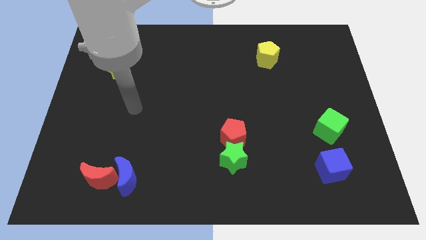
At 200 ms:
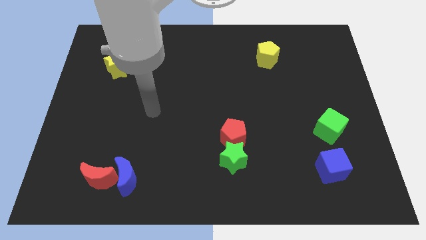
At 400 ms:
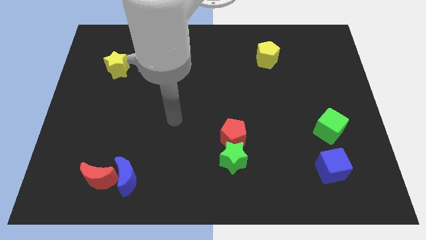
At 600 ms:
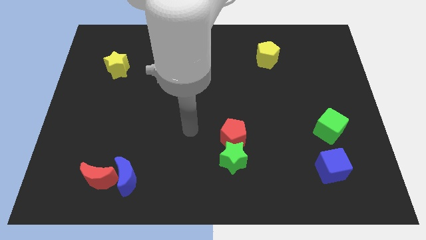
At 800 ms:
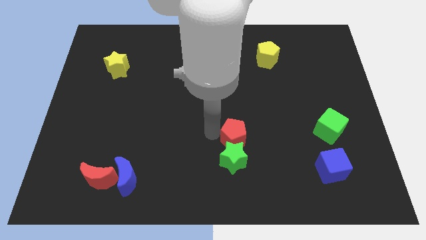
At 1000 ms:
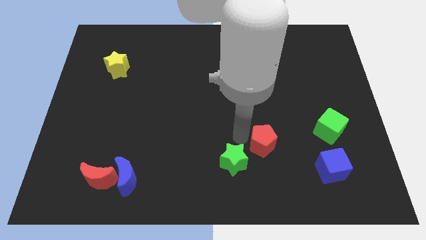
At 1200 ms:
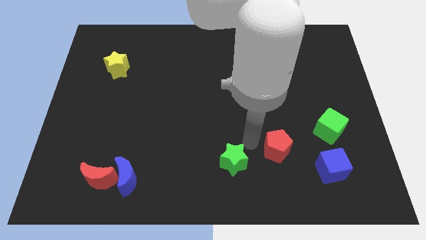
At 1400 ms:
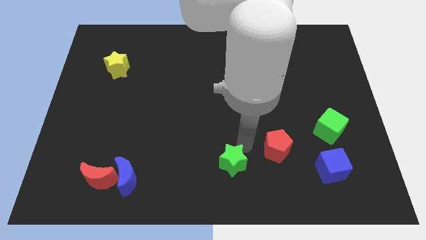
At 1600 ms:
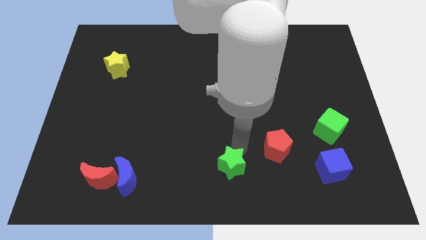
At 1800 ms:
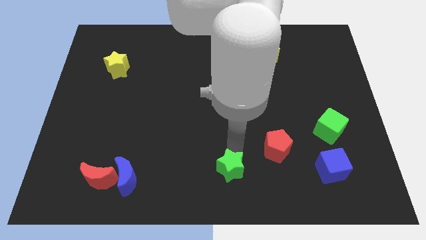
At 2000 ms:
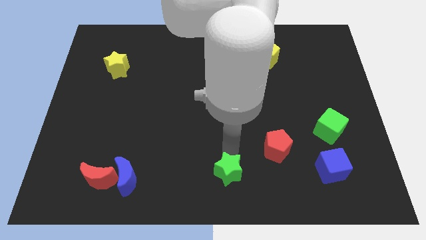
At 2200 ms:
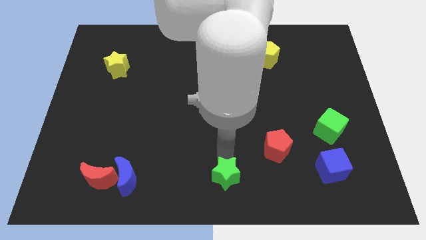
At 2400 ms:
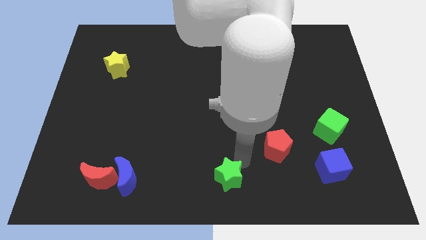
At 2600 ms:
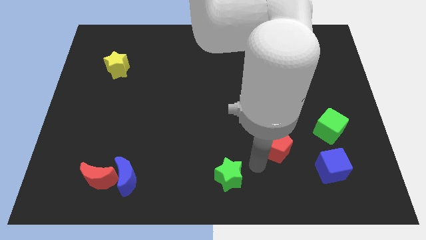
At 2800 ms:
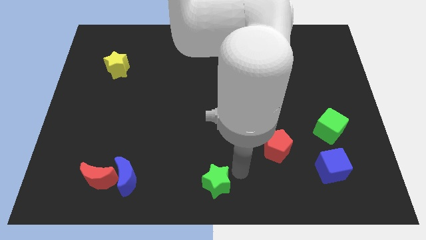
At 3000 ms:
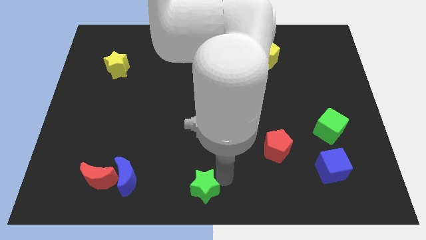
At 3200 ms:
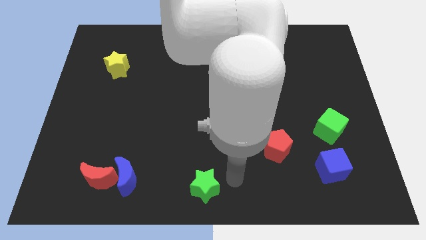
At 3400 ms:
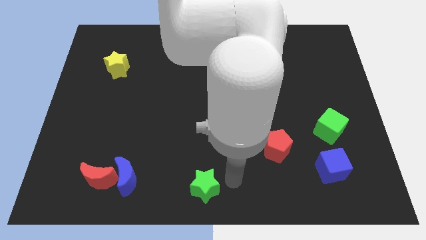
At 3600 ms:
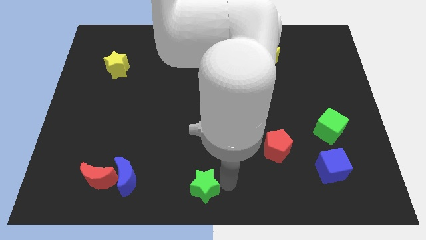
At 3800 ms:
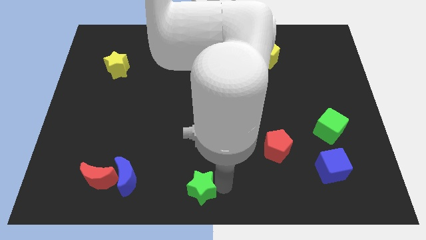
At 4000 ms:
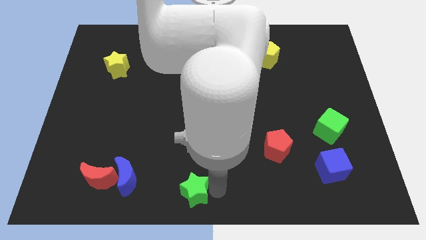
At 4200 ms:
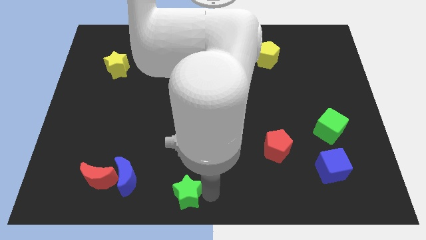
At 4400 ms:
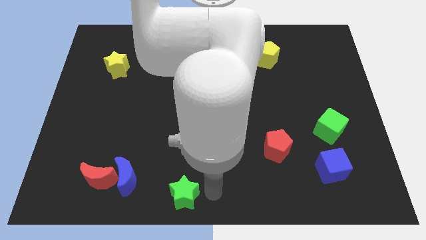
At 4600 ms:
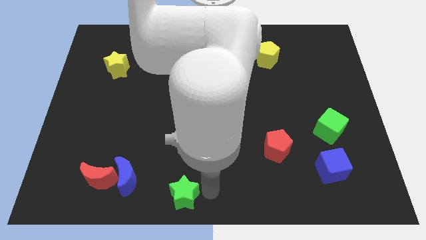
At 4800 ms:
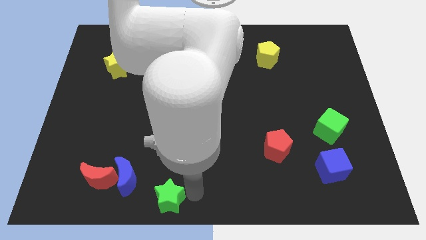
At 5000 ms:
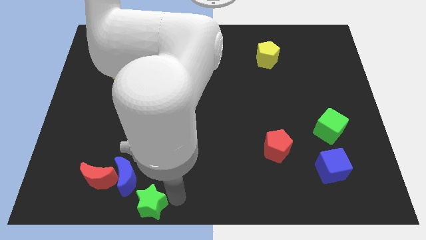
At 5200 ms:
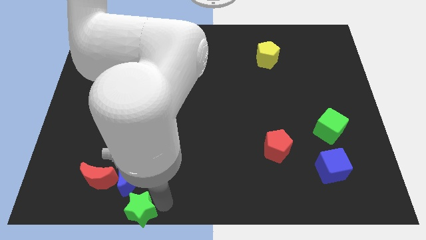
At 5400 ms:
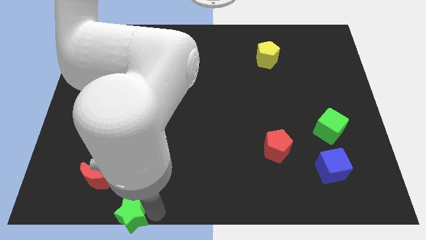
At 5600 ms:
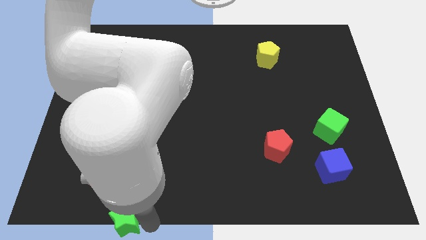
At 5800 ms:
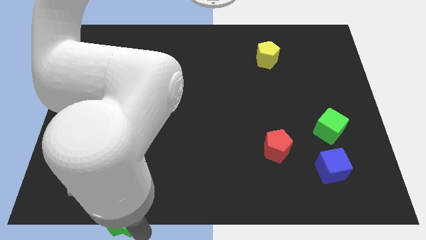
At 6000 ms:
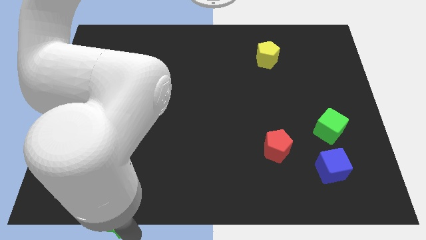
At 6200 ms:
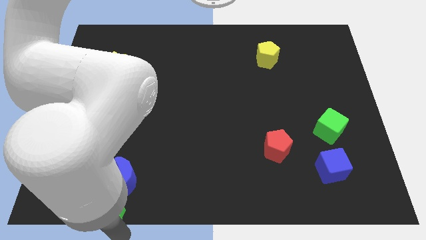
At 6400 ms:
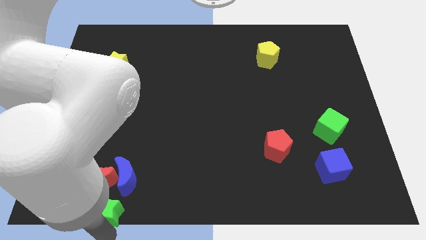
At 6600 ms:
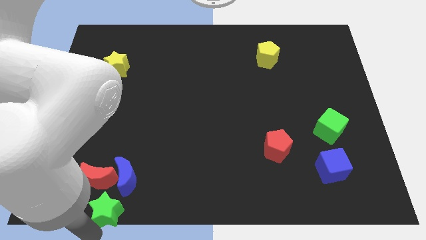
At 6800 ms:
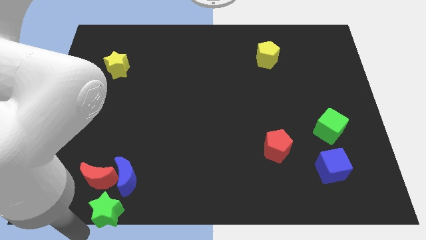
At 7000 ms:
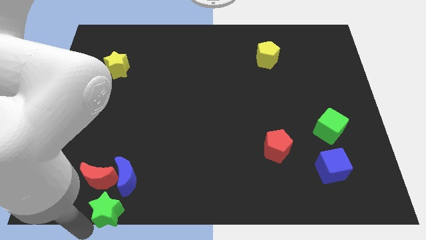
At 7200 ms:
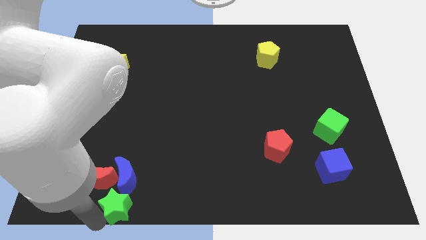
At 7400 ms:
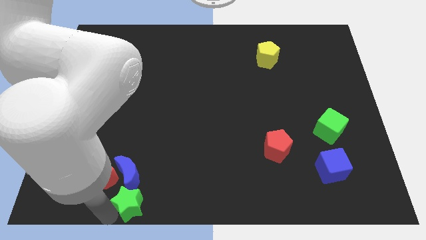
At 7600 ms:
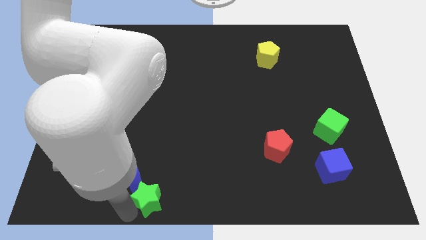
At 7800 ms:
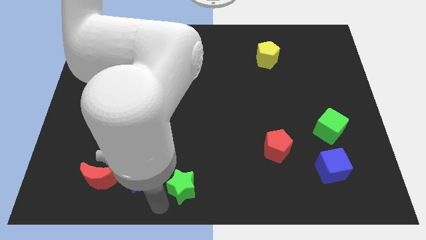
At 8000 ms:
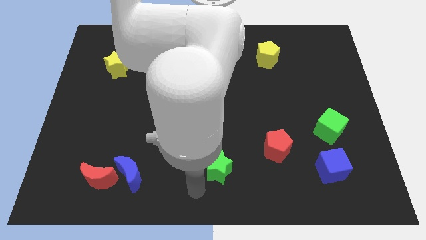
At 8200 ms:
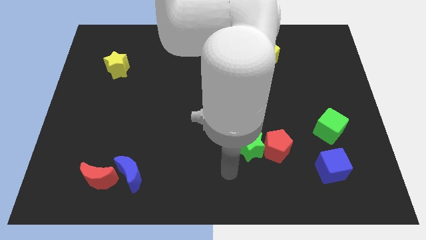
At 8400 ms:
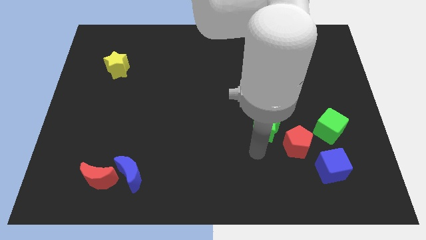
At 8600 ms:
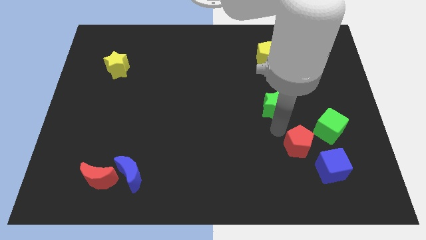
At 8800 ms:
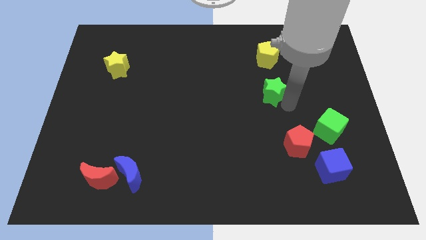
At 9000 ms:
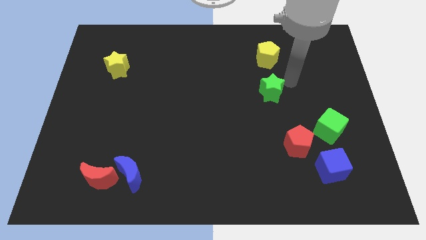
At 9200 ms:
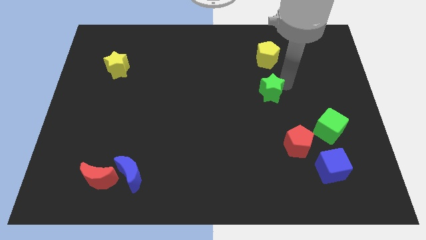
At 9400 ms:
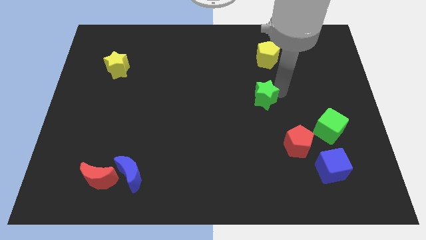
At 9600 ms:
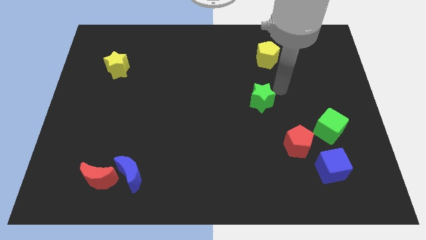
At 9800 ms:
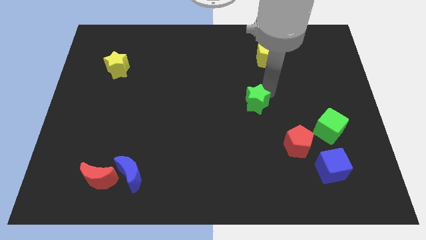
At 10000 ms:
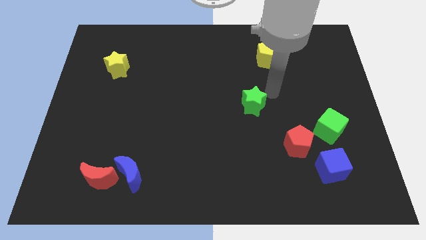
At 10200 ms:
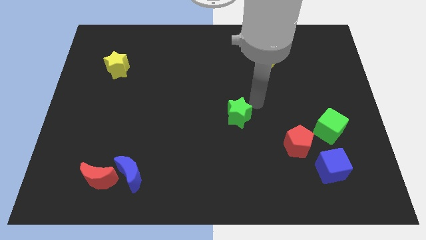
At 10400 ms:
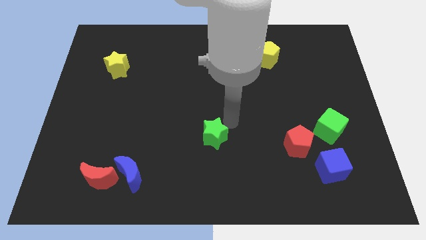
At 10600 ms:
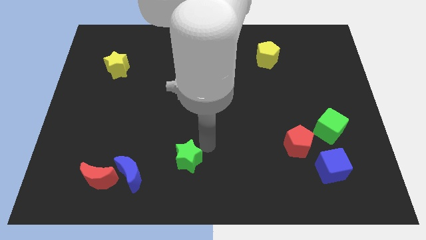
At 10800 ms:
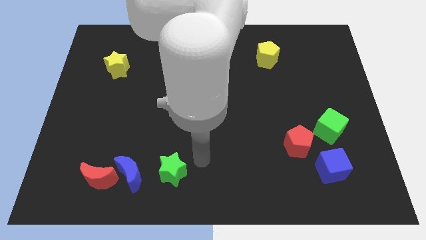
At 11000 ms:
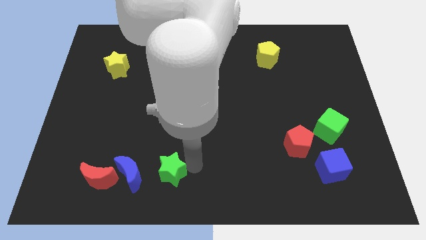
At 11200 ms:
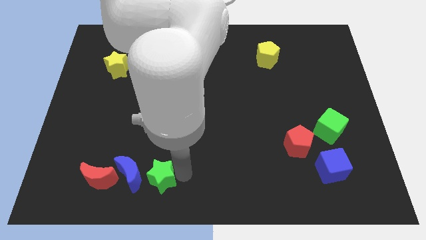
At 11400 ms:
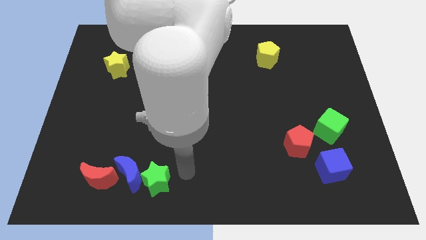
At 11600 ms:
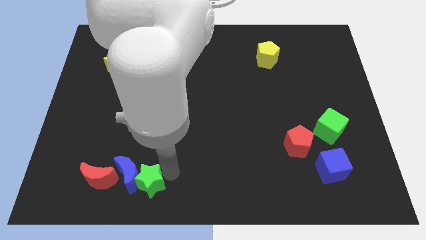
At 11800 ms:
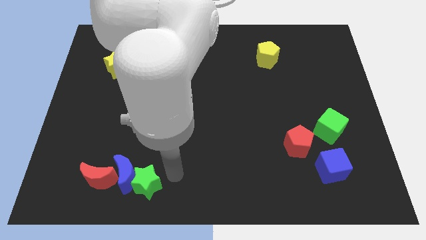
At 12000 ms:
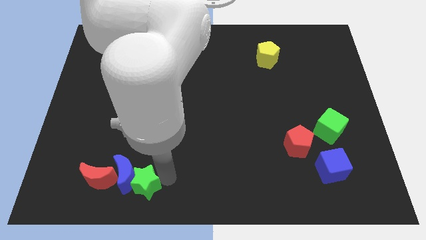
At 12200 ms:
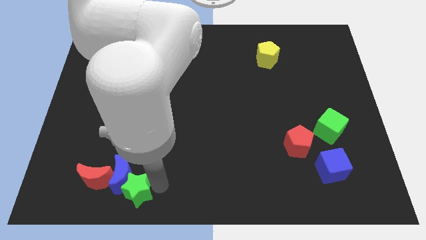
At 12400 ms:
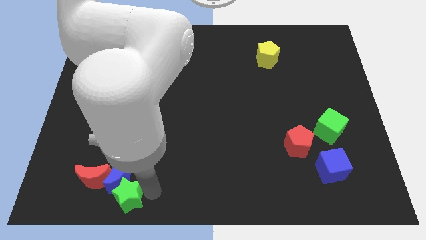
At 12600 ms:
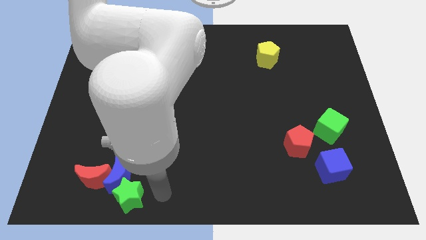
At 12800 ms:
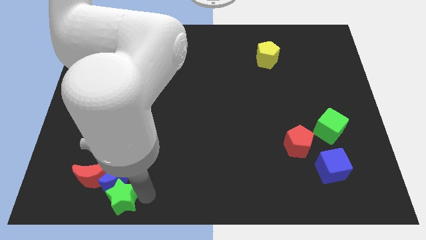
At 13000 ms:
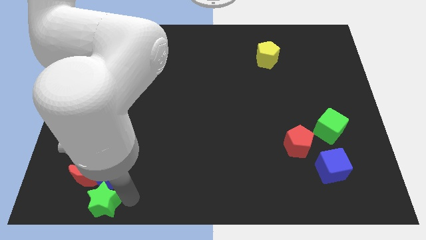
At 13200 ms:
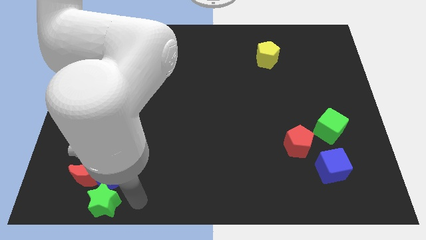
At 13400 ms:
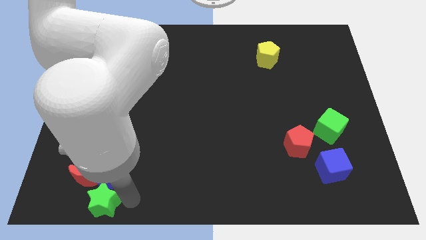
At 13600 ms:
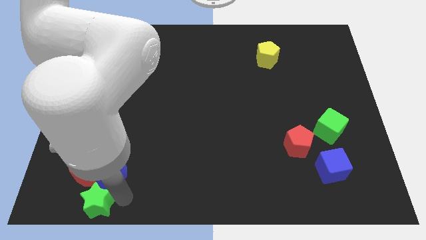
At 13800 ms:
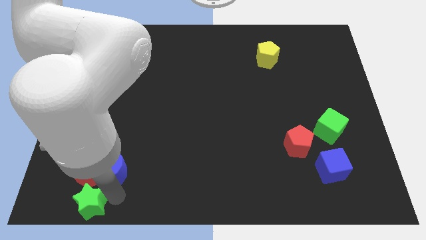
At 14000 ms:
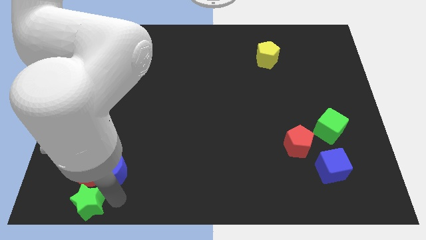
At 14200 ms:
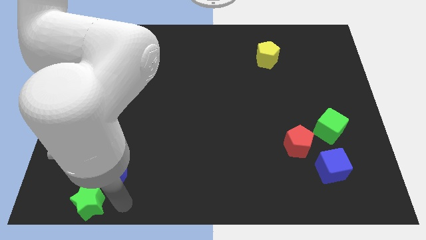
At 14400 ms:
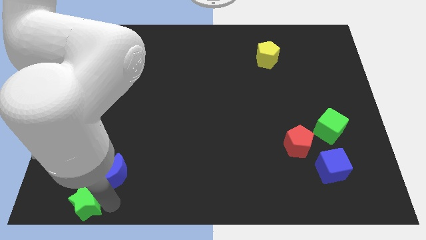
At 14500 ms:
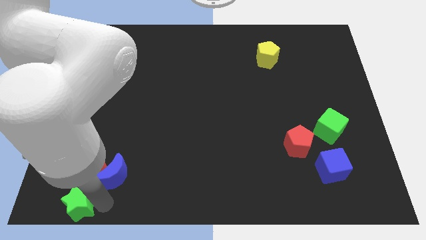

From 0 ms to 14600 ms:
put the green star to the bottom left corner
